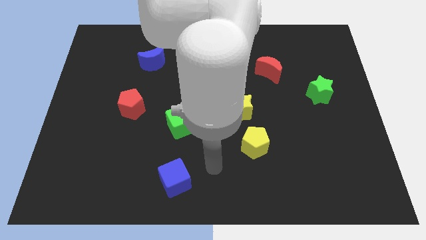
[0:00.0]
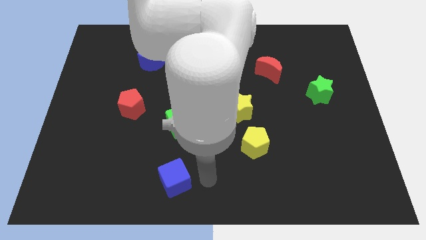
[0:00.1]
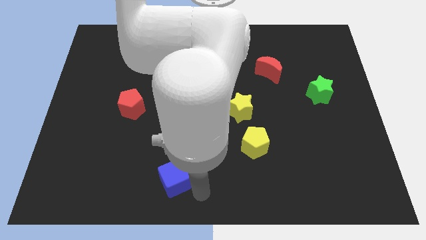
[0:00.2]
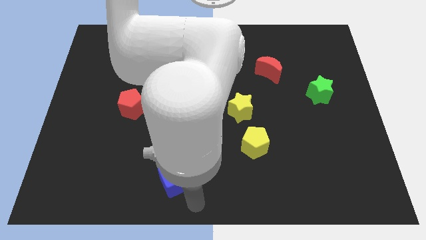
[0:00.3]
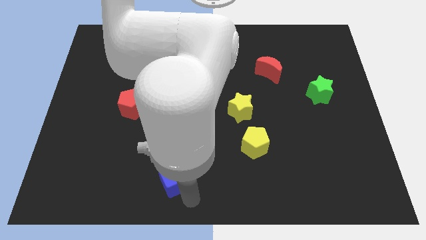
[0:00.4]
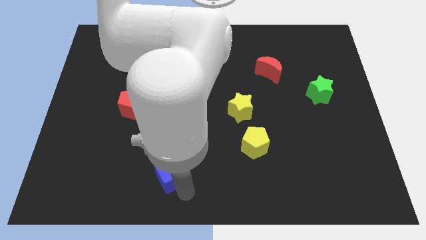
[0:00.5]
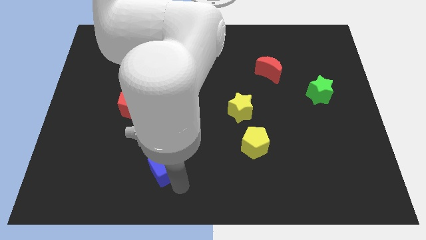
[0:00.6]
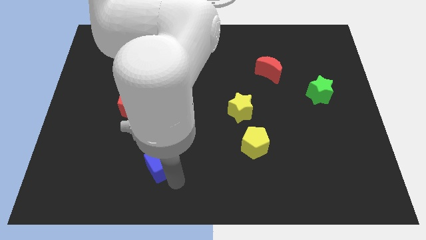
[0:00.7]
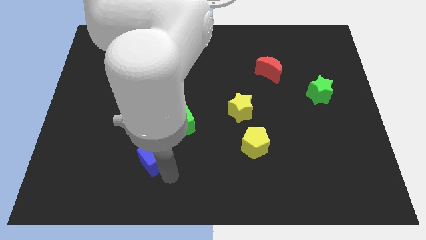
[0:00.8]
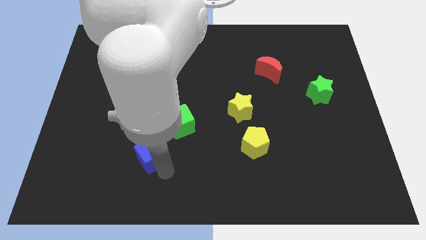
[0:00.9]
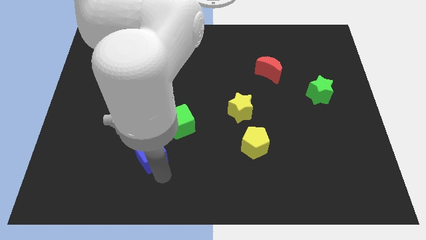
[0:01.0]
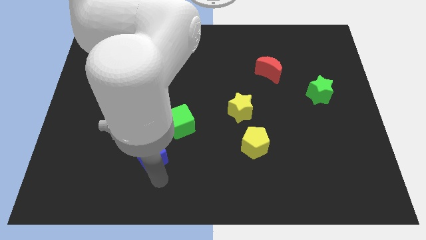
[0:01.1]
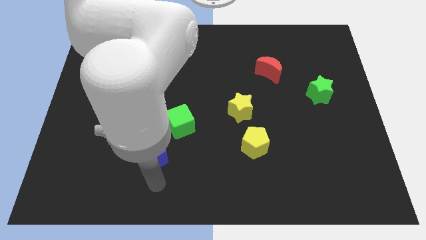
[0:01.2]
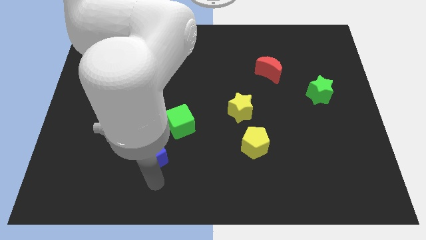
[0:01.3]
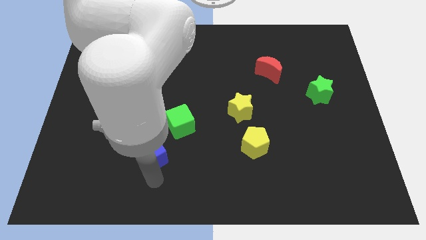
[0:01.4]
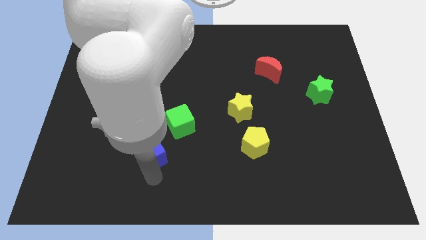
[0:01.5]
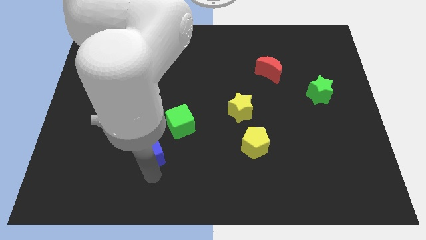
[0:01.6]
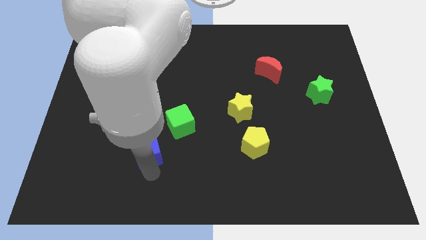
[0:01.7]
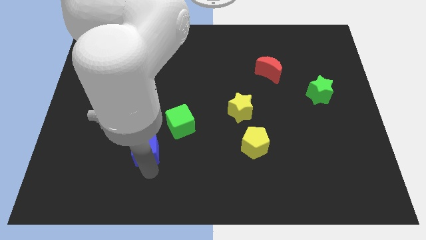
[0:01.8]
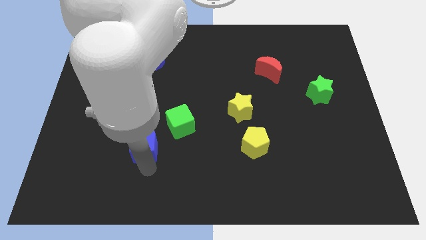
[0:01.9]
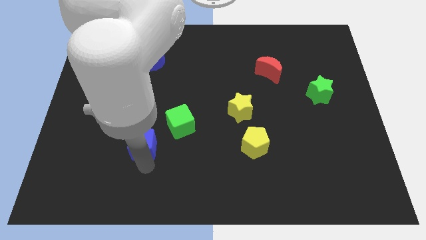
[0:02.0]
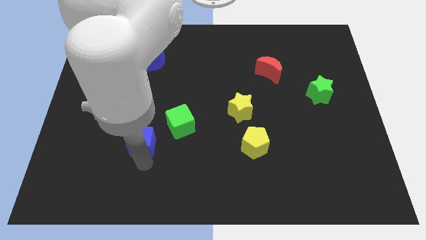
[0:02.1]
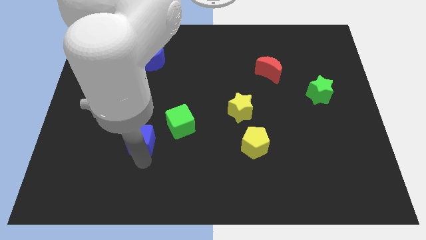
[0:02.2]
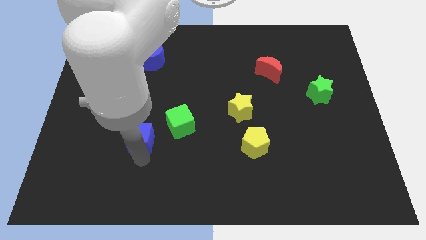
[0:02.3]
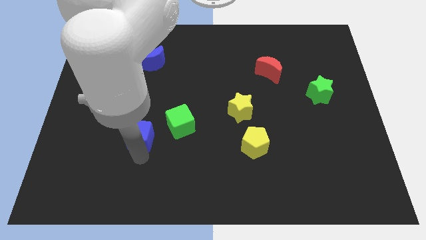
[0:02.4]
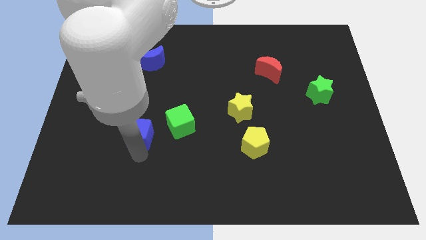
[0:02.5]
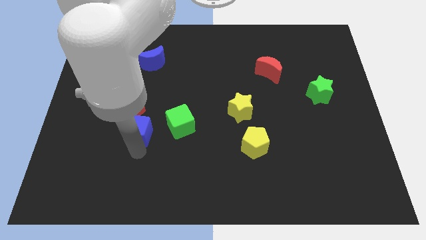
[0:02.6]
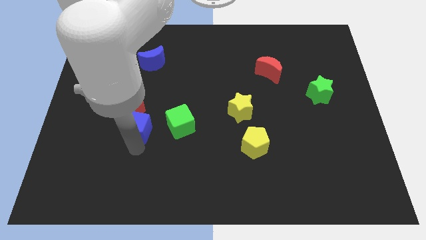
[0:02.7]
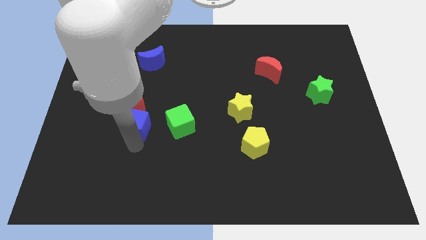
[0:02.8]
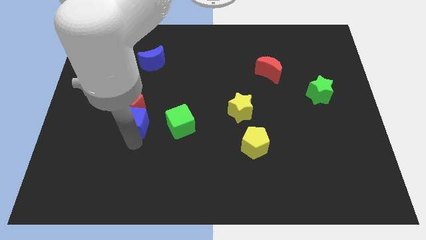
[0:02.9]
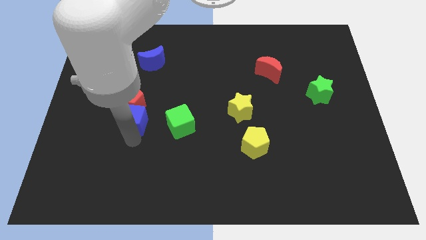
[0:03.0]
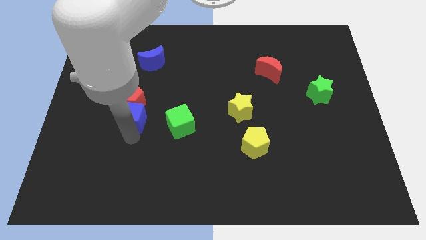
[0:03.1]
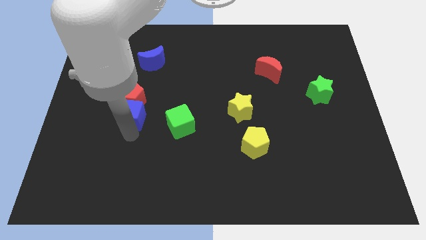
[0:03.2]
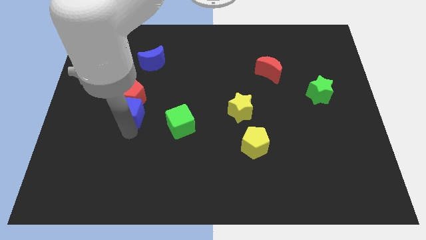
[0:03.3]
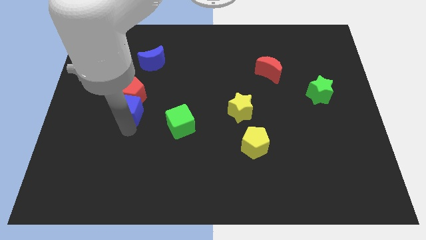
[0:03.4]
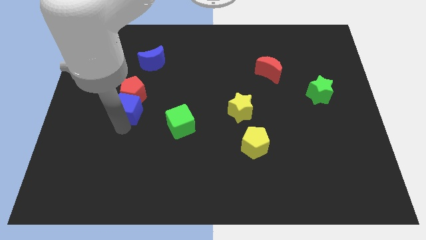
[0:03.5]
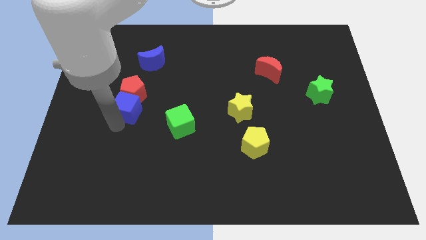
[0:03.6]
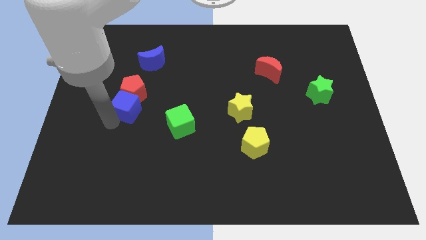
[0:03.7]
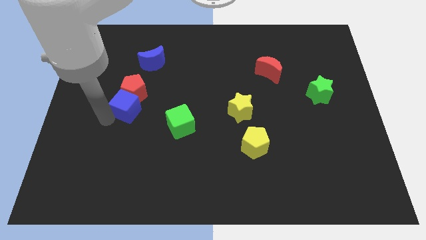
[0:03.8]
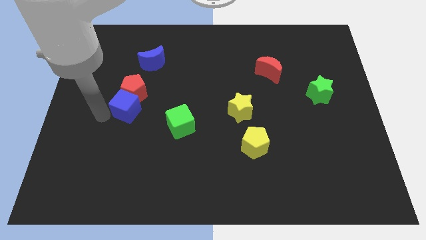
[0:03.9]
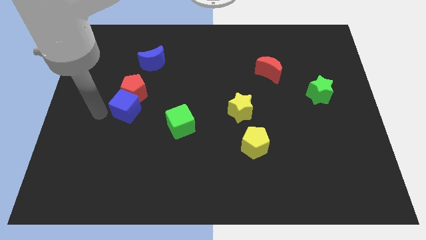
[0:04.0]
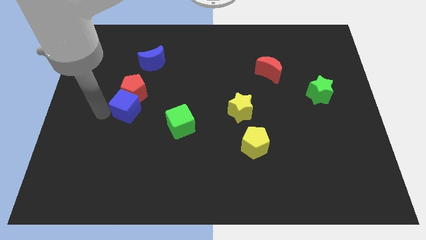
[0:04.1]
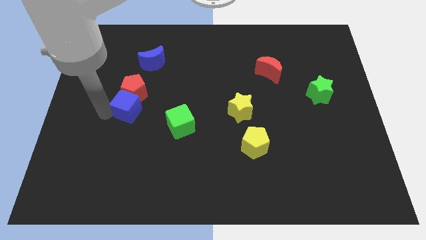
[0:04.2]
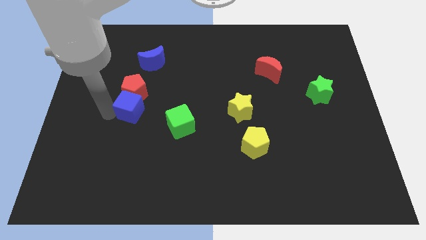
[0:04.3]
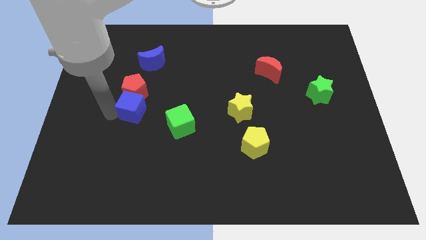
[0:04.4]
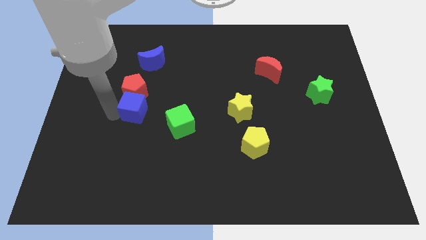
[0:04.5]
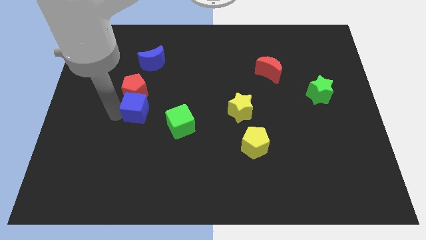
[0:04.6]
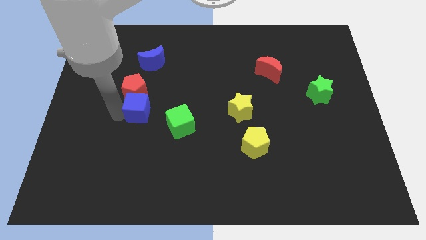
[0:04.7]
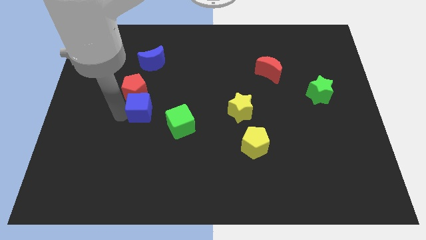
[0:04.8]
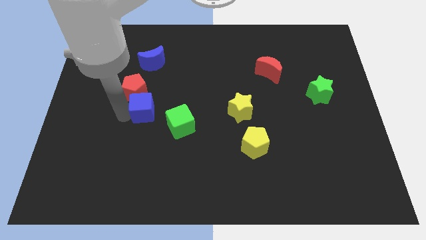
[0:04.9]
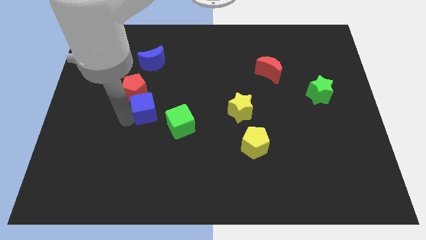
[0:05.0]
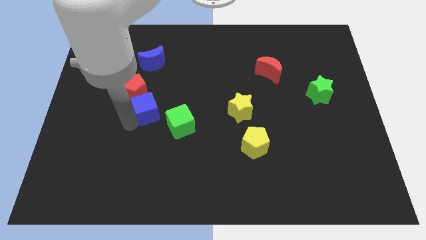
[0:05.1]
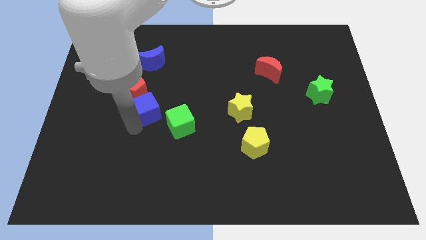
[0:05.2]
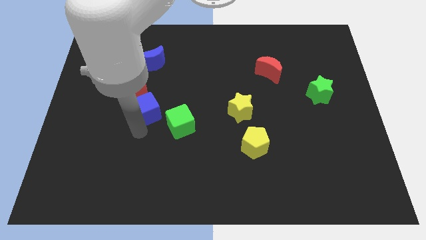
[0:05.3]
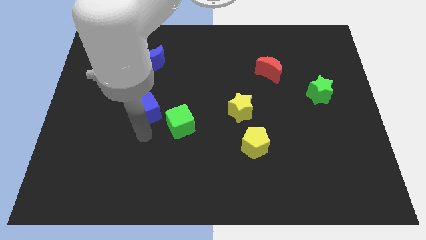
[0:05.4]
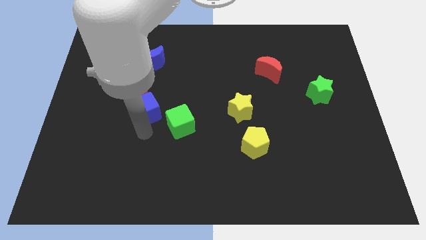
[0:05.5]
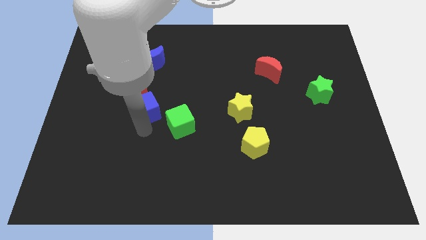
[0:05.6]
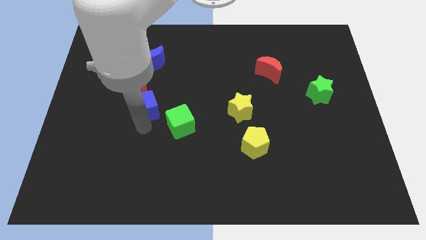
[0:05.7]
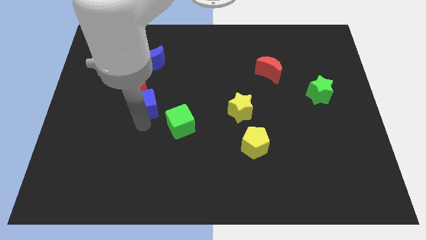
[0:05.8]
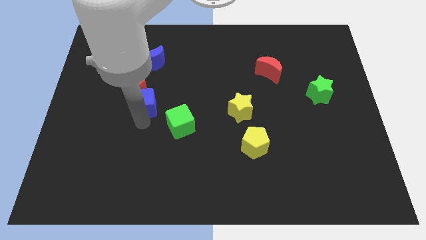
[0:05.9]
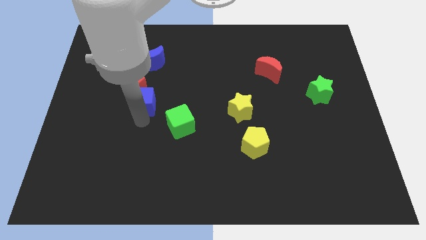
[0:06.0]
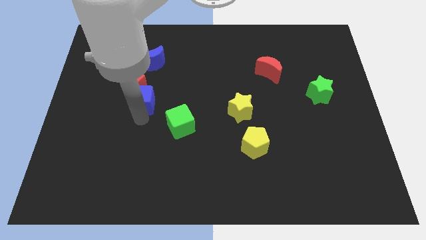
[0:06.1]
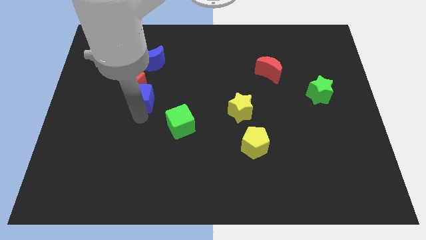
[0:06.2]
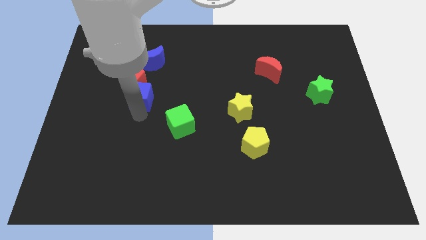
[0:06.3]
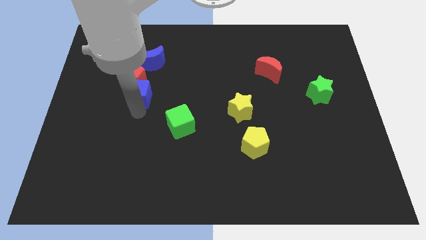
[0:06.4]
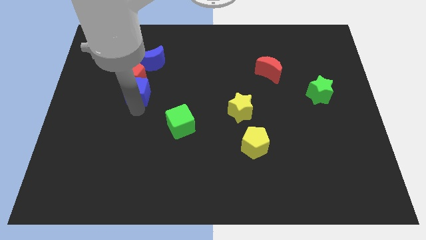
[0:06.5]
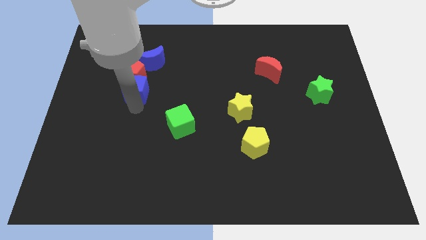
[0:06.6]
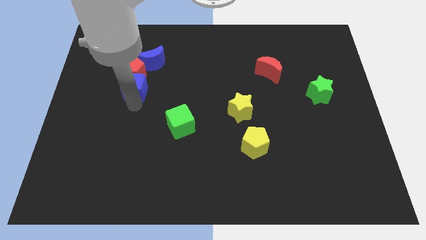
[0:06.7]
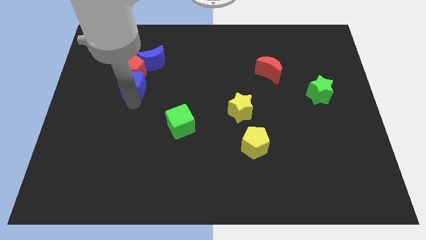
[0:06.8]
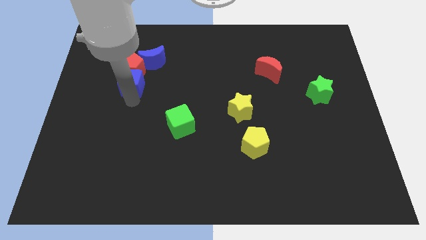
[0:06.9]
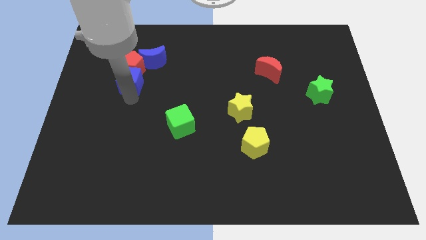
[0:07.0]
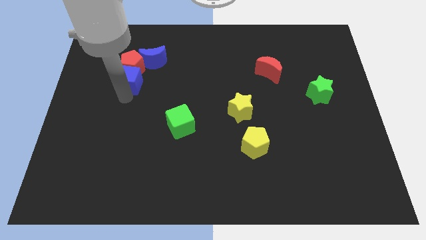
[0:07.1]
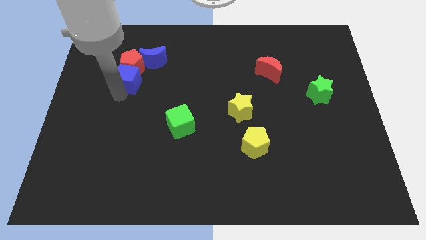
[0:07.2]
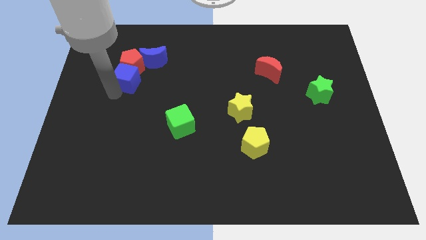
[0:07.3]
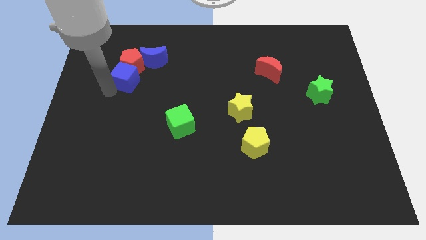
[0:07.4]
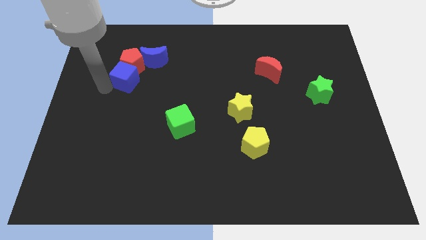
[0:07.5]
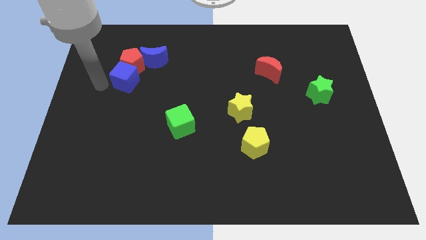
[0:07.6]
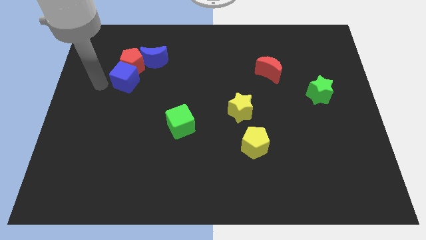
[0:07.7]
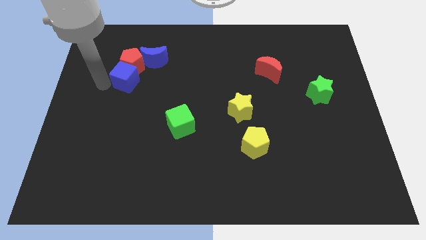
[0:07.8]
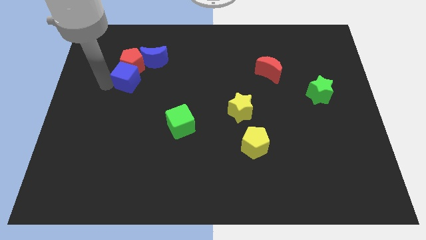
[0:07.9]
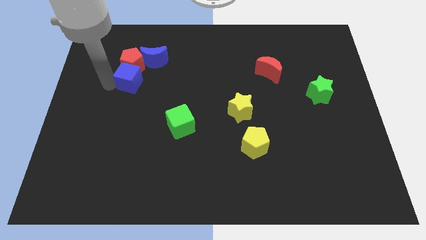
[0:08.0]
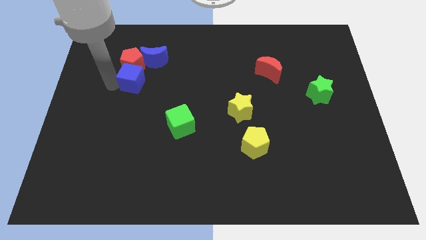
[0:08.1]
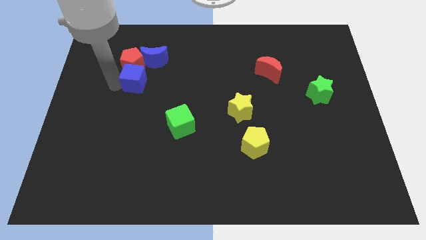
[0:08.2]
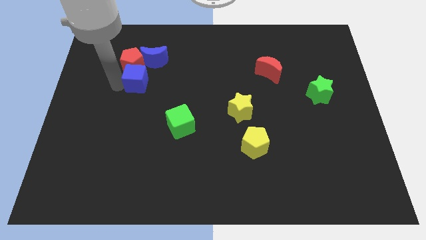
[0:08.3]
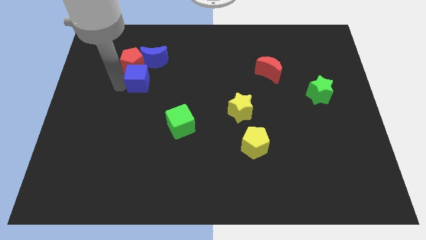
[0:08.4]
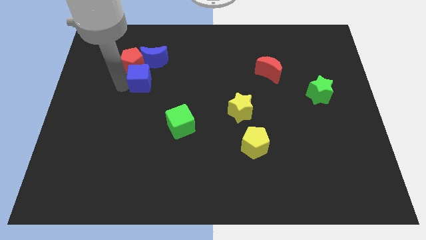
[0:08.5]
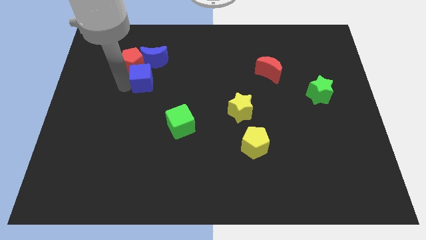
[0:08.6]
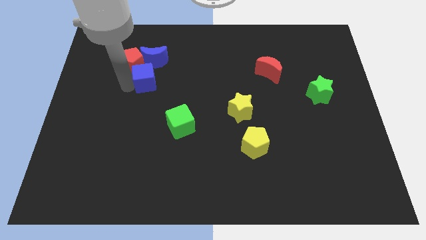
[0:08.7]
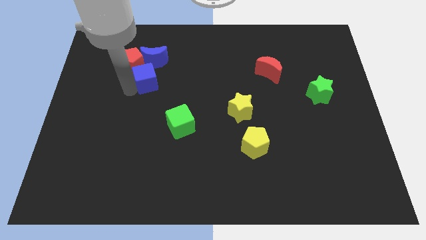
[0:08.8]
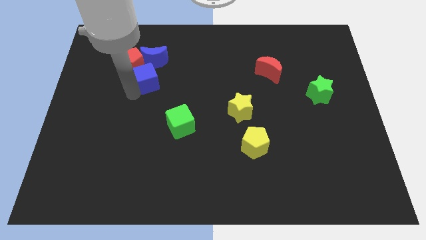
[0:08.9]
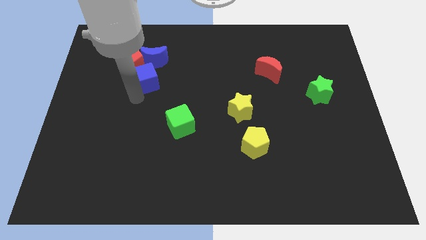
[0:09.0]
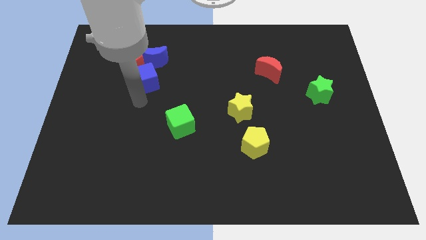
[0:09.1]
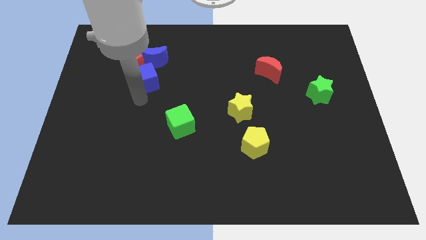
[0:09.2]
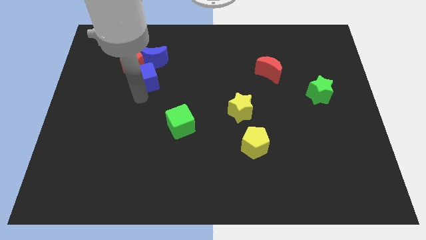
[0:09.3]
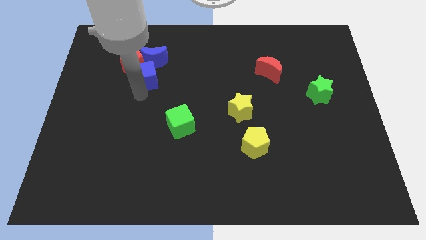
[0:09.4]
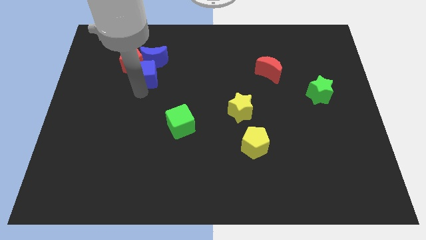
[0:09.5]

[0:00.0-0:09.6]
push the blue cube to the blue moon
